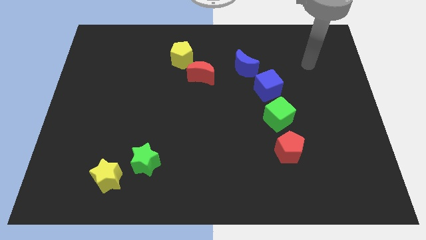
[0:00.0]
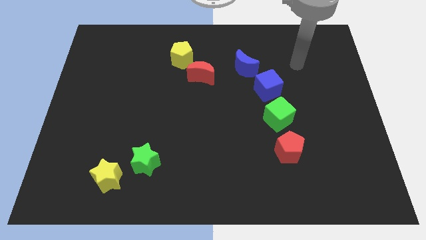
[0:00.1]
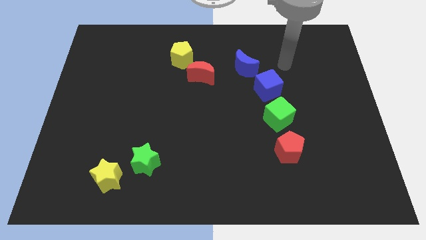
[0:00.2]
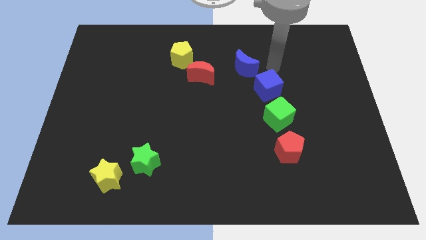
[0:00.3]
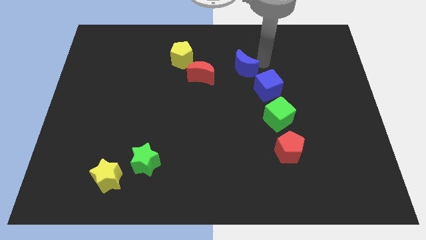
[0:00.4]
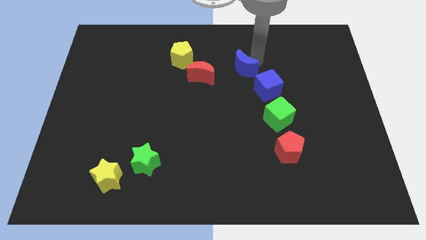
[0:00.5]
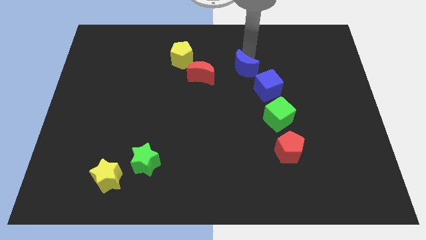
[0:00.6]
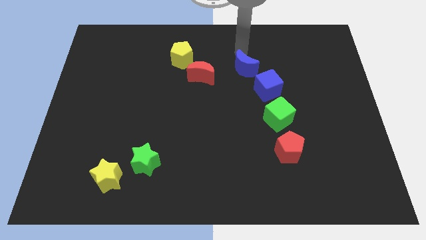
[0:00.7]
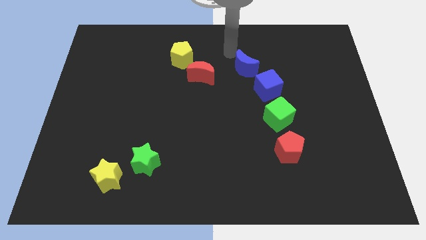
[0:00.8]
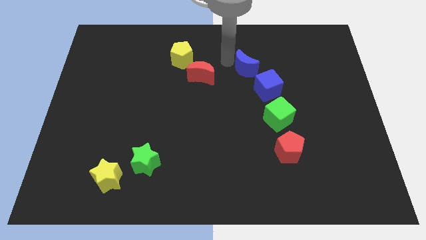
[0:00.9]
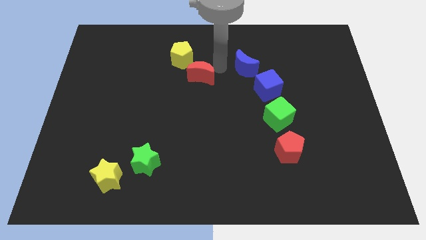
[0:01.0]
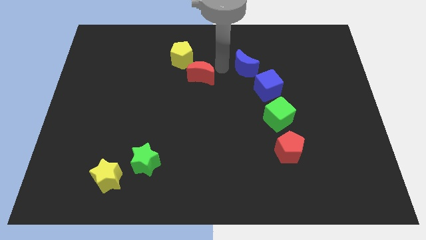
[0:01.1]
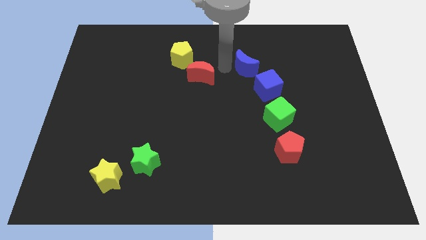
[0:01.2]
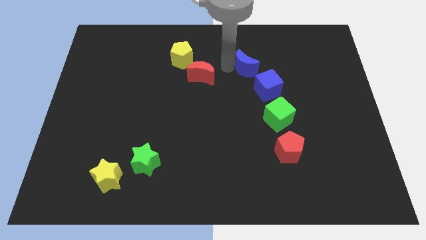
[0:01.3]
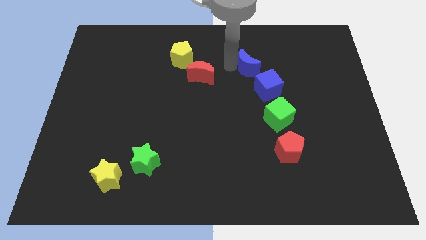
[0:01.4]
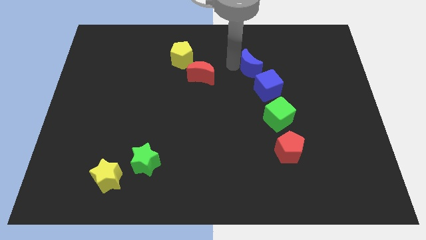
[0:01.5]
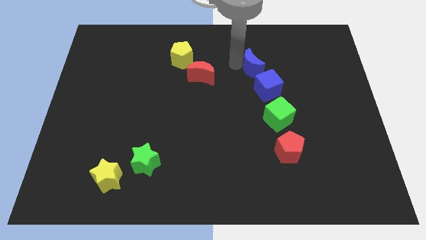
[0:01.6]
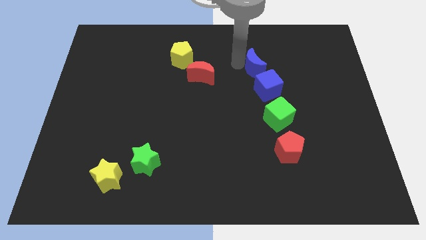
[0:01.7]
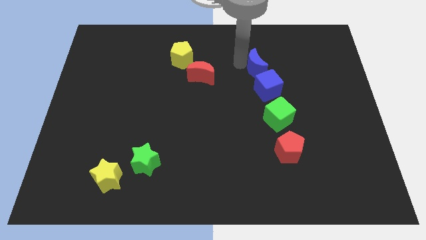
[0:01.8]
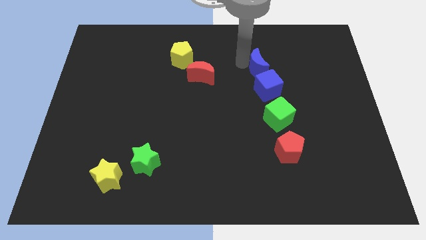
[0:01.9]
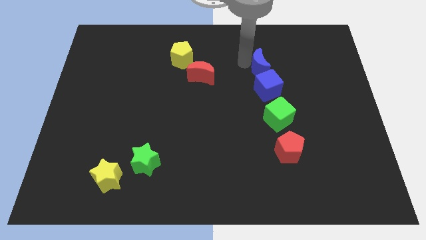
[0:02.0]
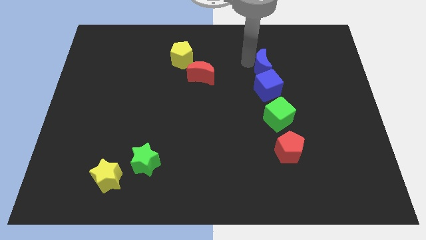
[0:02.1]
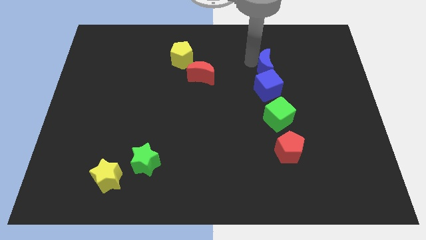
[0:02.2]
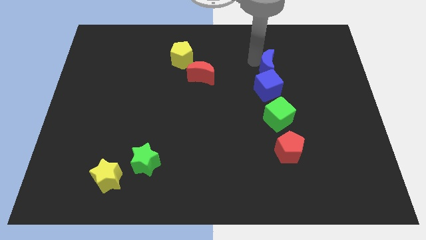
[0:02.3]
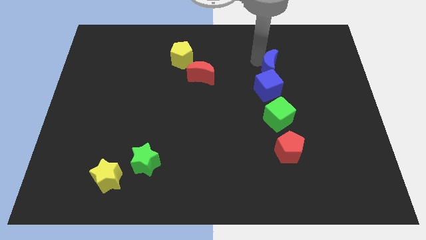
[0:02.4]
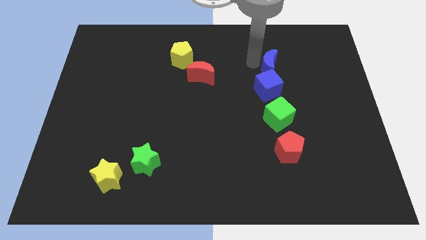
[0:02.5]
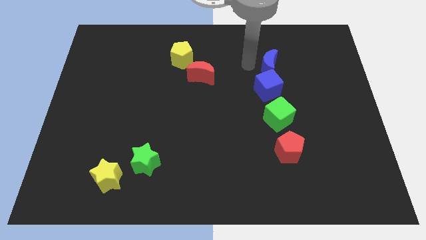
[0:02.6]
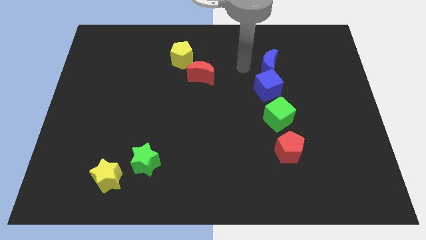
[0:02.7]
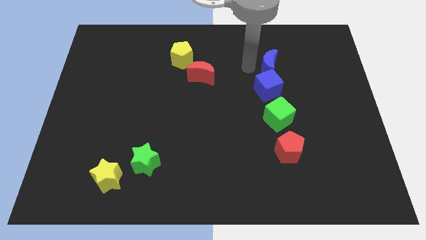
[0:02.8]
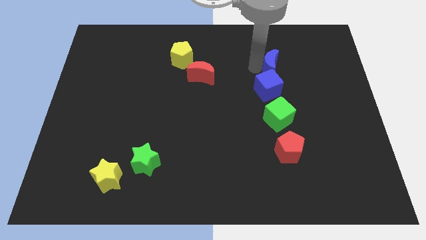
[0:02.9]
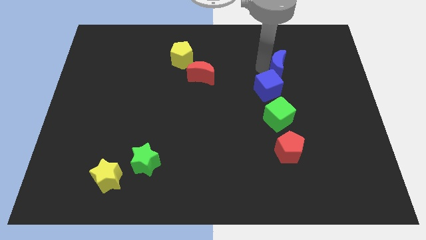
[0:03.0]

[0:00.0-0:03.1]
push the blue moon slightly right

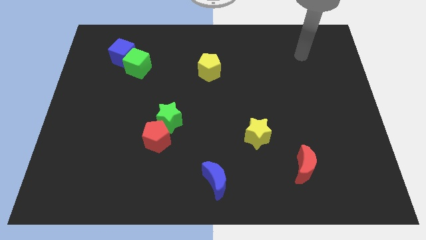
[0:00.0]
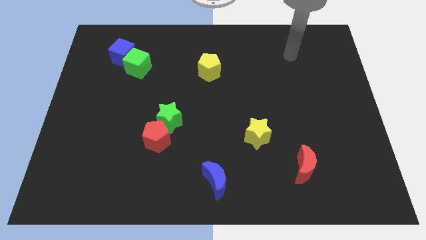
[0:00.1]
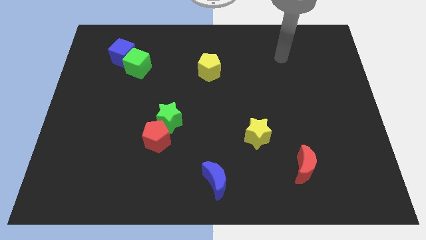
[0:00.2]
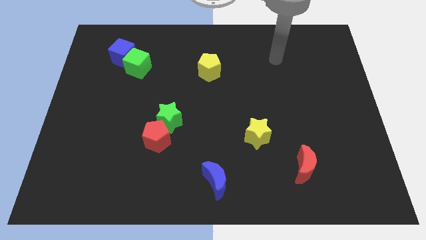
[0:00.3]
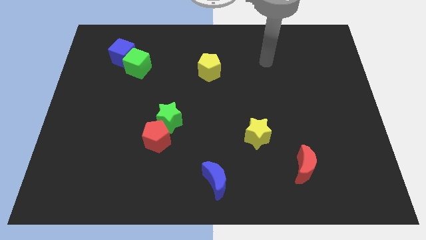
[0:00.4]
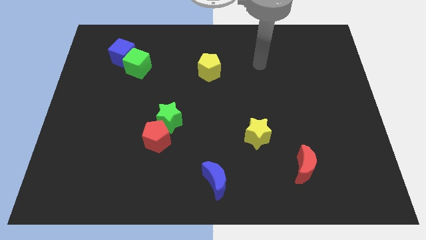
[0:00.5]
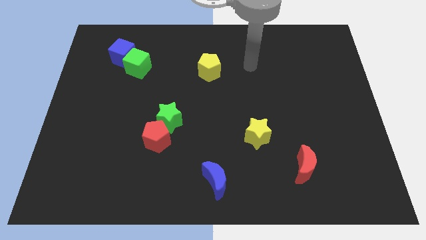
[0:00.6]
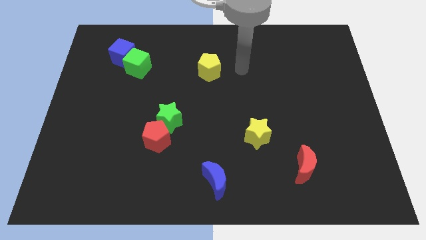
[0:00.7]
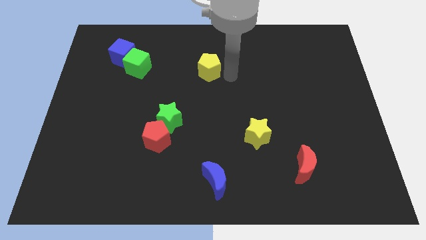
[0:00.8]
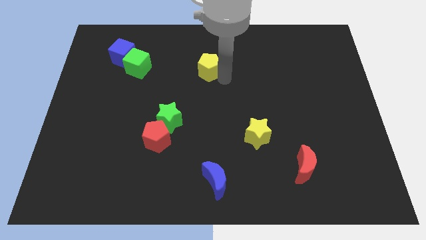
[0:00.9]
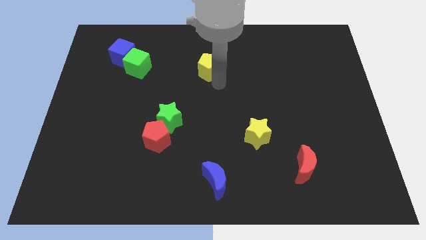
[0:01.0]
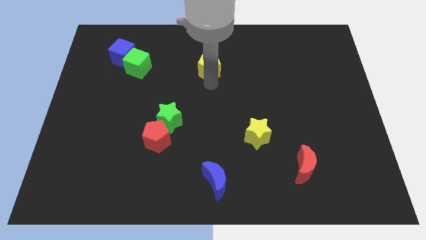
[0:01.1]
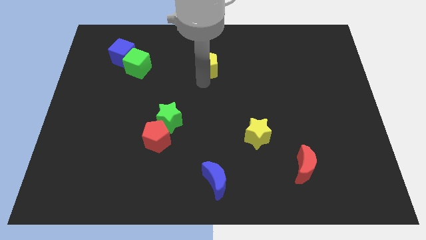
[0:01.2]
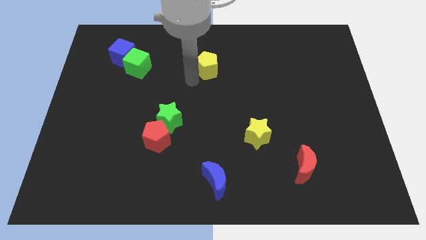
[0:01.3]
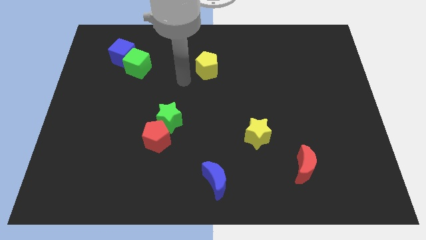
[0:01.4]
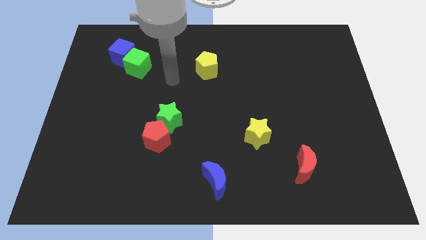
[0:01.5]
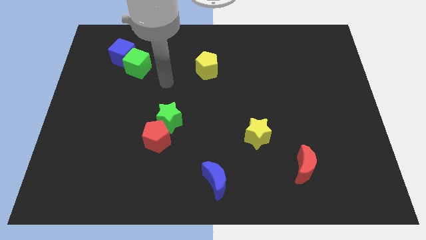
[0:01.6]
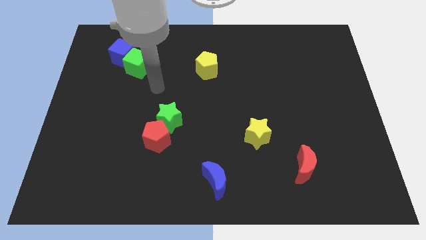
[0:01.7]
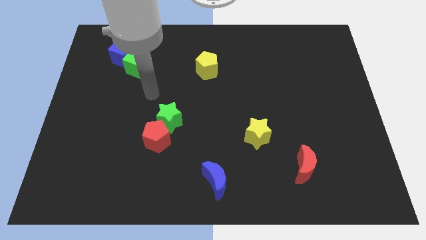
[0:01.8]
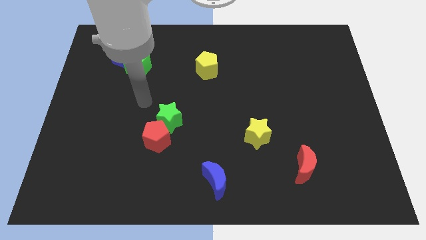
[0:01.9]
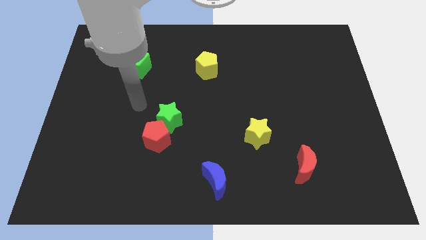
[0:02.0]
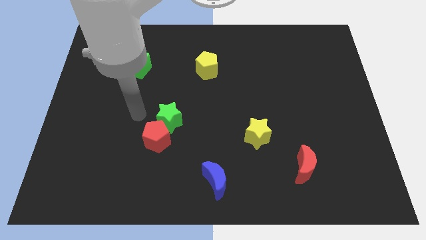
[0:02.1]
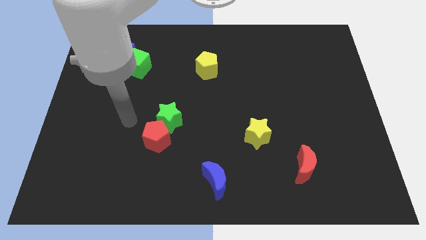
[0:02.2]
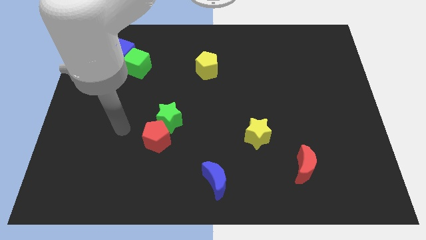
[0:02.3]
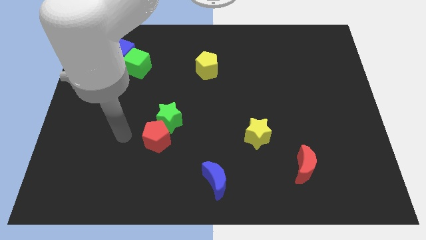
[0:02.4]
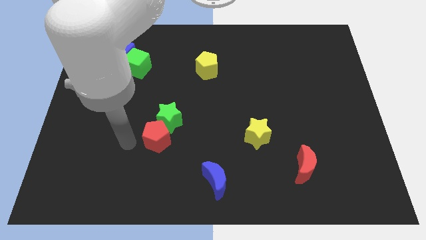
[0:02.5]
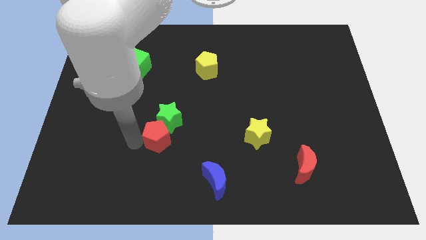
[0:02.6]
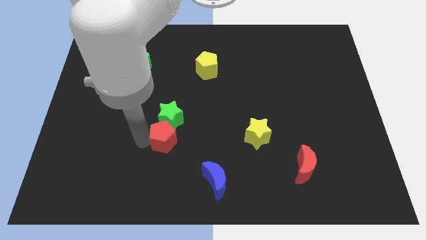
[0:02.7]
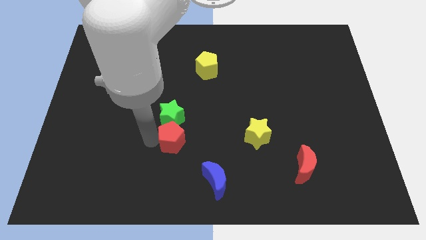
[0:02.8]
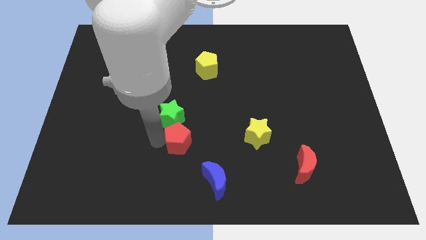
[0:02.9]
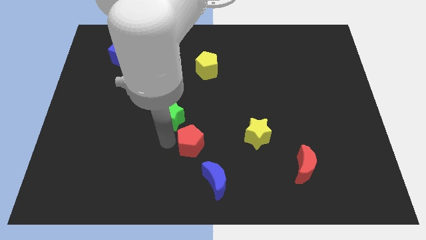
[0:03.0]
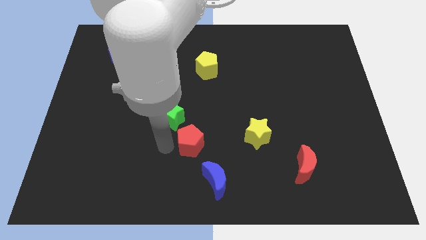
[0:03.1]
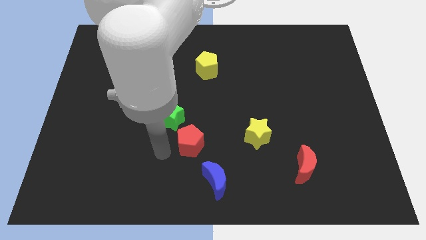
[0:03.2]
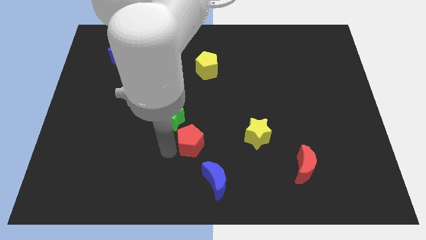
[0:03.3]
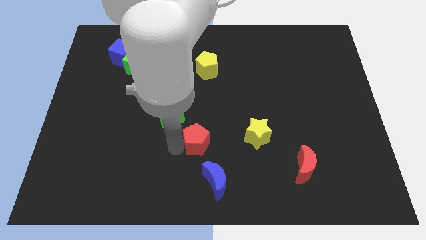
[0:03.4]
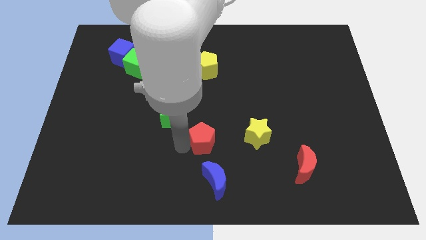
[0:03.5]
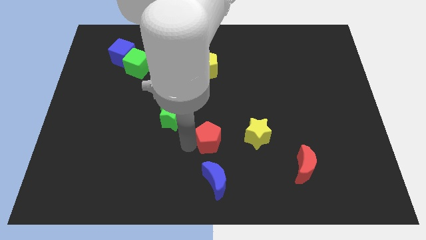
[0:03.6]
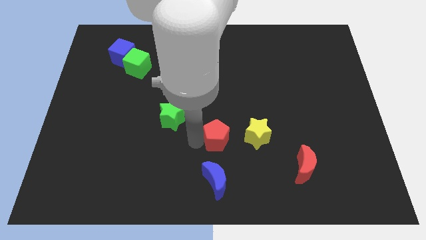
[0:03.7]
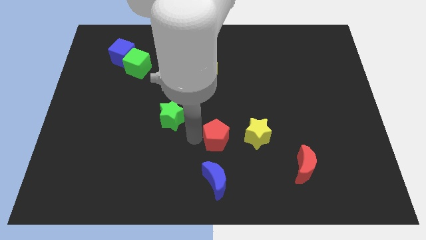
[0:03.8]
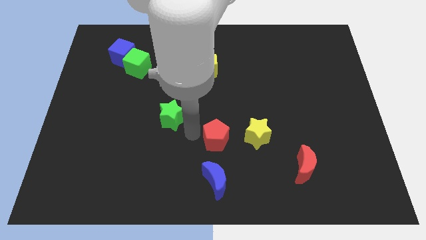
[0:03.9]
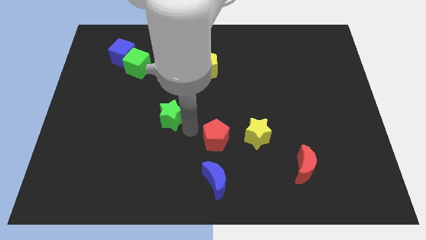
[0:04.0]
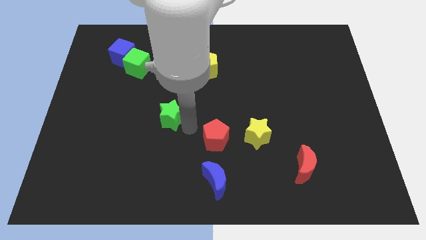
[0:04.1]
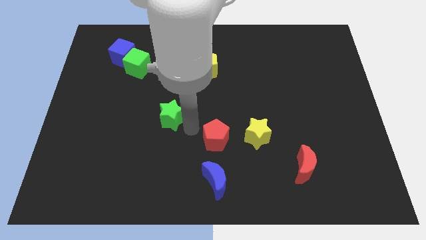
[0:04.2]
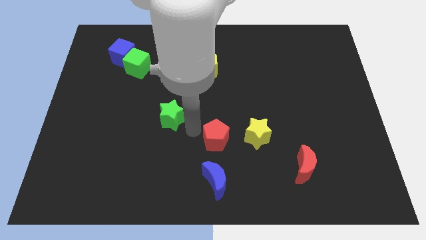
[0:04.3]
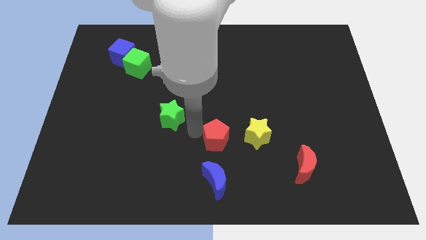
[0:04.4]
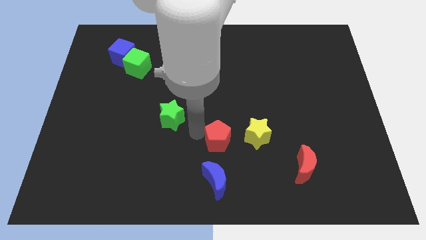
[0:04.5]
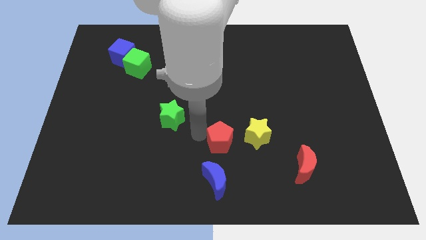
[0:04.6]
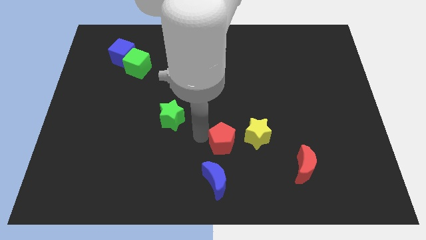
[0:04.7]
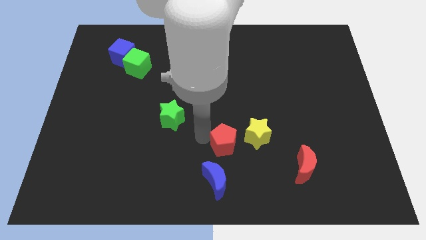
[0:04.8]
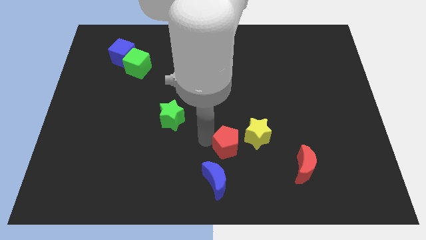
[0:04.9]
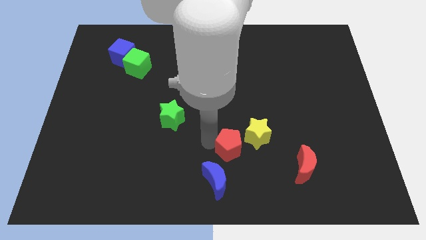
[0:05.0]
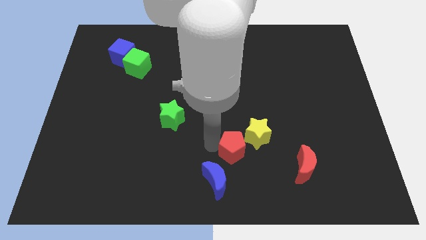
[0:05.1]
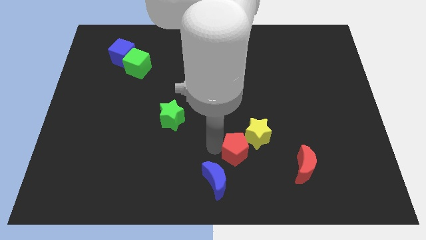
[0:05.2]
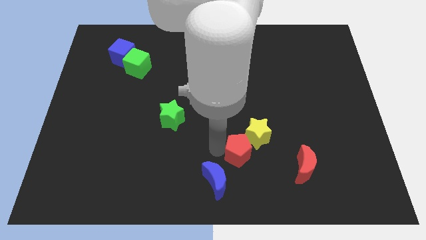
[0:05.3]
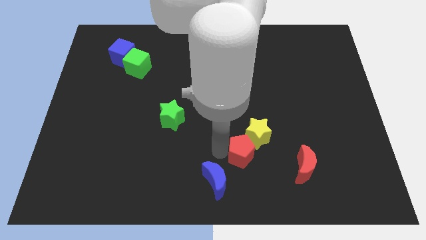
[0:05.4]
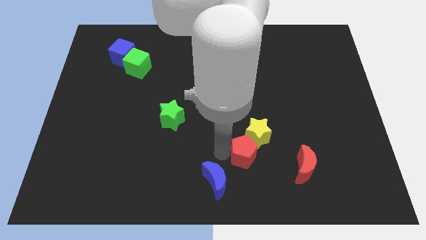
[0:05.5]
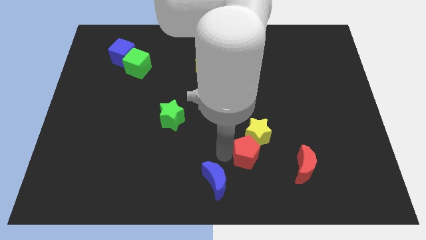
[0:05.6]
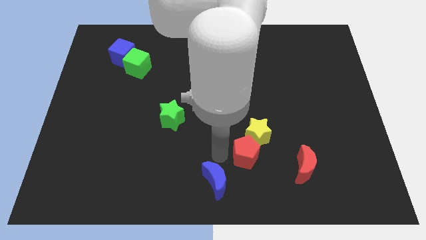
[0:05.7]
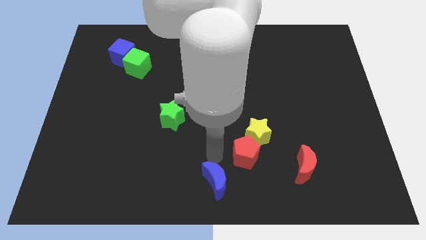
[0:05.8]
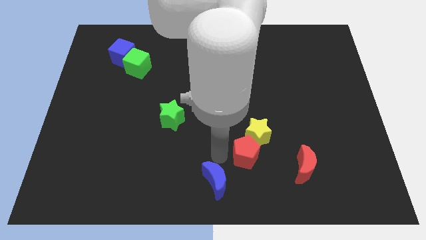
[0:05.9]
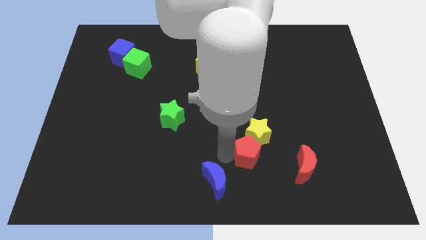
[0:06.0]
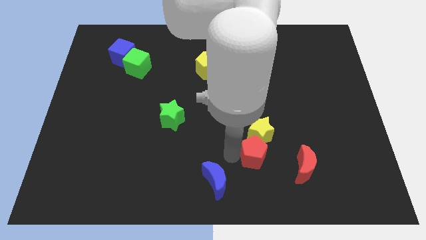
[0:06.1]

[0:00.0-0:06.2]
move the red pentagon right
